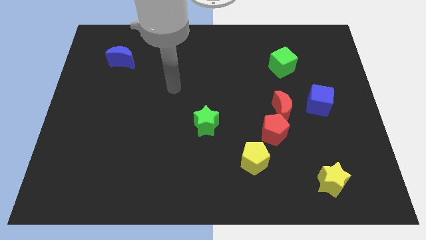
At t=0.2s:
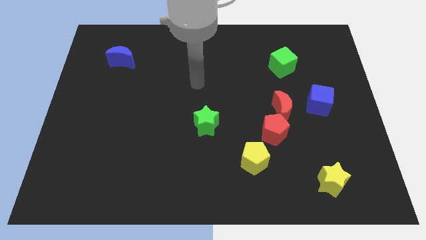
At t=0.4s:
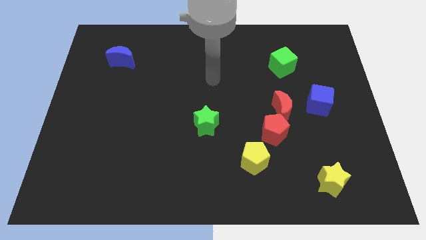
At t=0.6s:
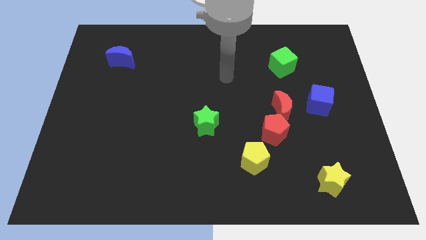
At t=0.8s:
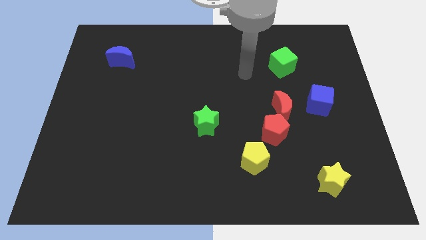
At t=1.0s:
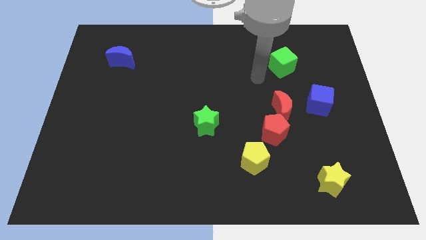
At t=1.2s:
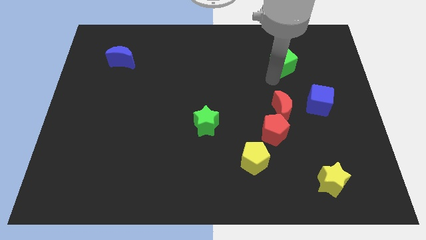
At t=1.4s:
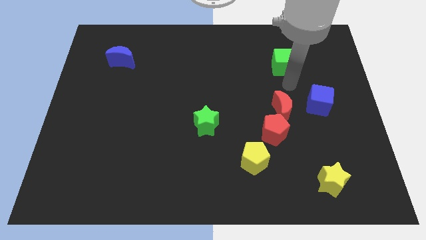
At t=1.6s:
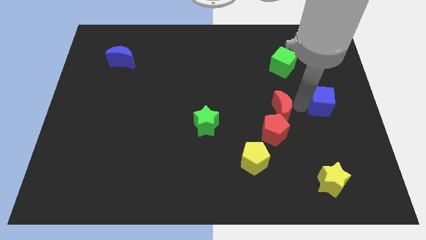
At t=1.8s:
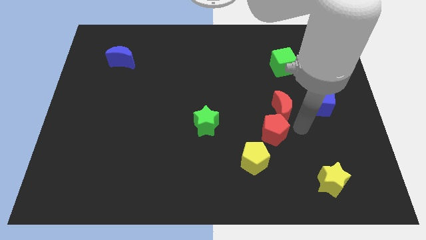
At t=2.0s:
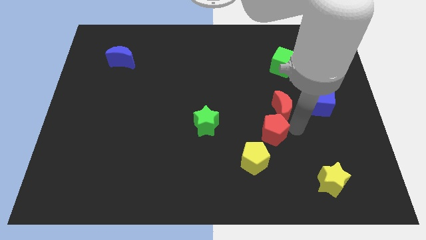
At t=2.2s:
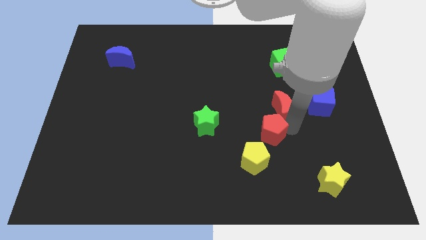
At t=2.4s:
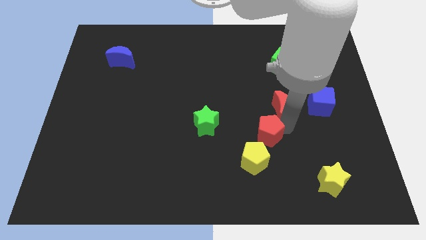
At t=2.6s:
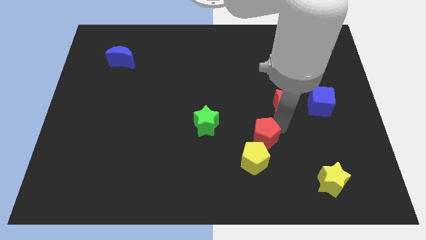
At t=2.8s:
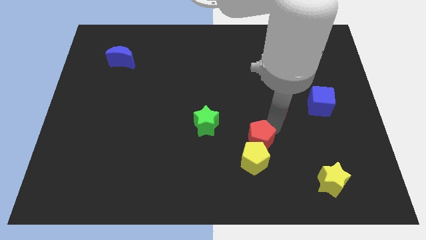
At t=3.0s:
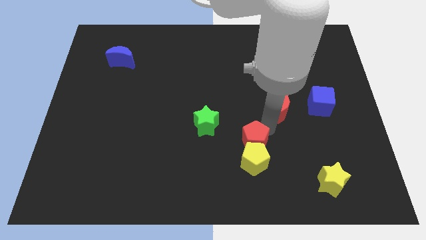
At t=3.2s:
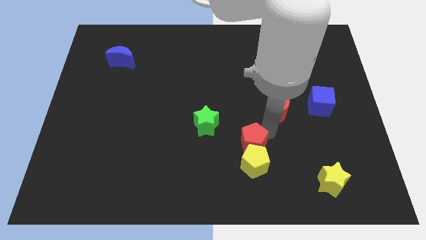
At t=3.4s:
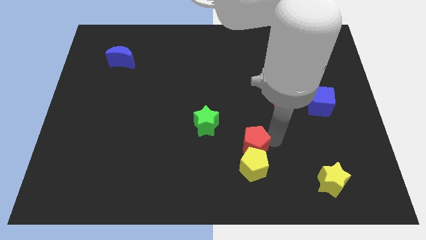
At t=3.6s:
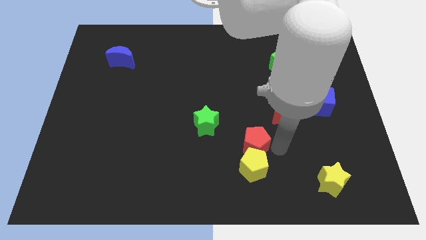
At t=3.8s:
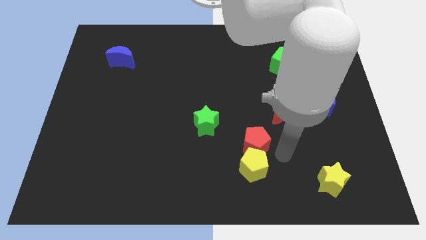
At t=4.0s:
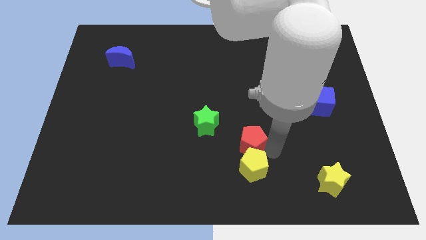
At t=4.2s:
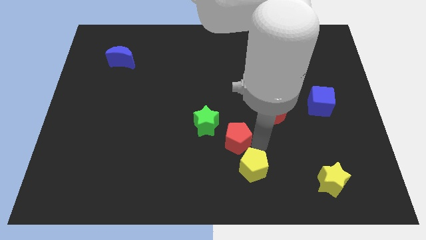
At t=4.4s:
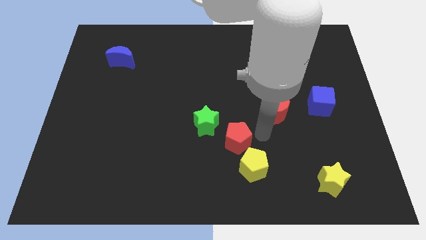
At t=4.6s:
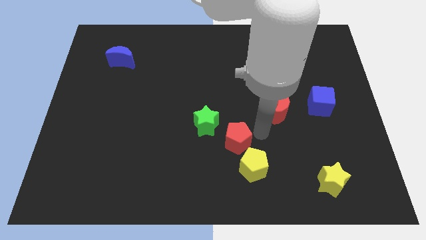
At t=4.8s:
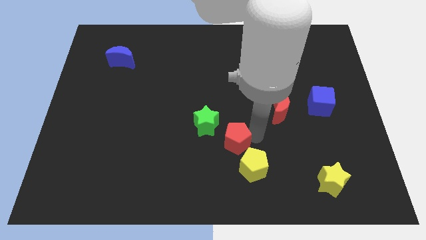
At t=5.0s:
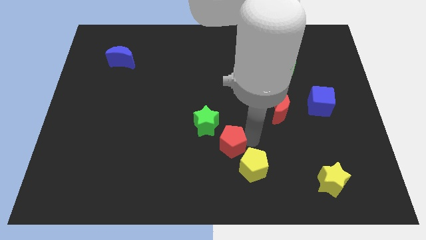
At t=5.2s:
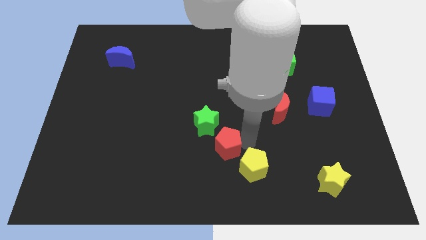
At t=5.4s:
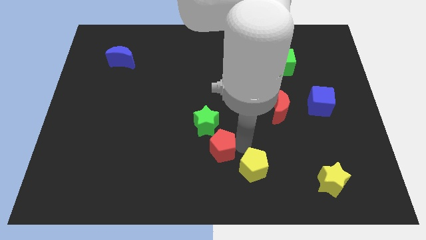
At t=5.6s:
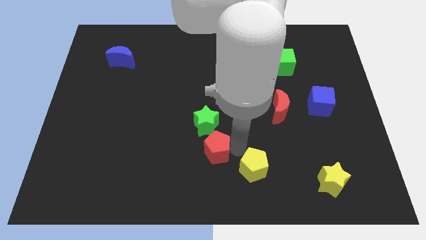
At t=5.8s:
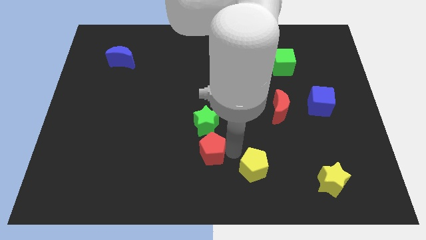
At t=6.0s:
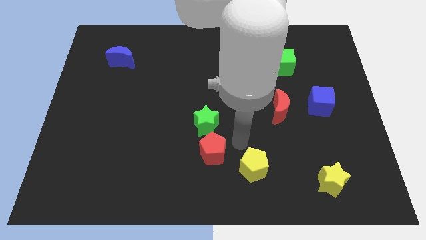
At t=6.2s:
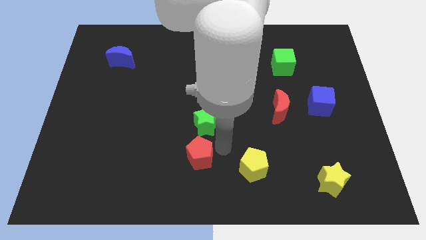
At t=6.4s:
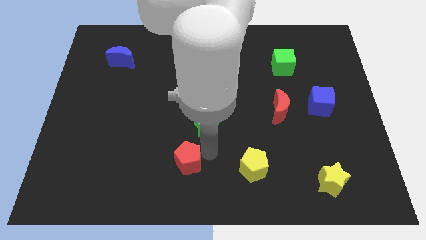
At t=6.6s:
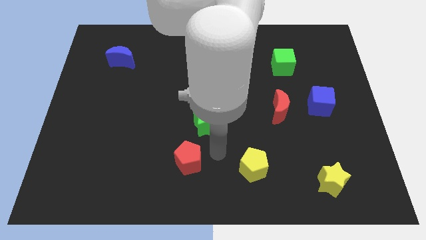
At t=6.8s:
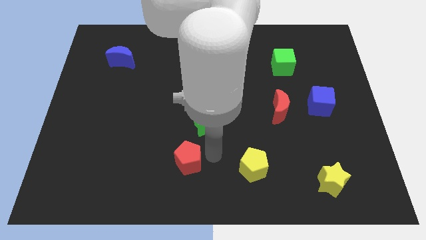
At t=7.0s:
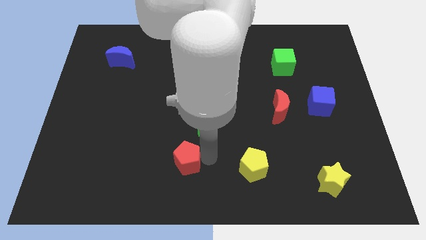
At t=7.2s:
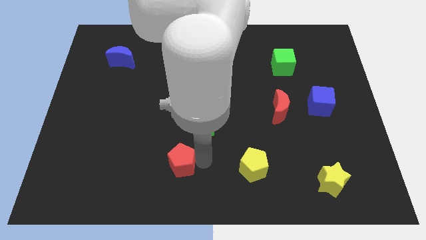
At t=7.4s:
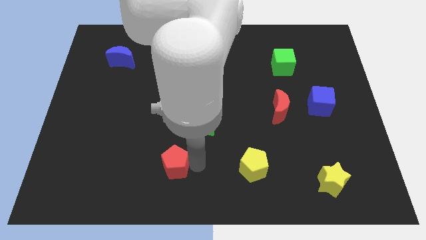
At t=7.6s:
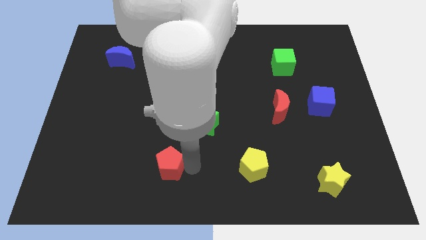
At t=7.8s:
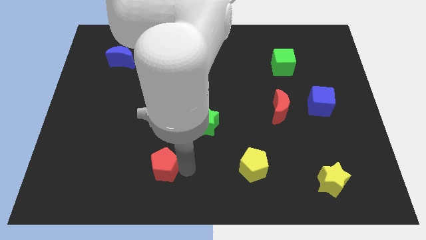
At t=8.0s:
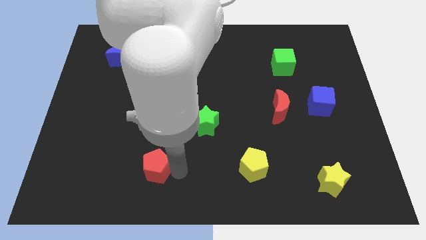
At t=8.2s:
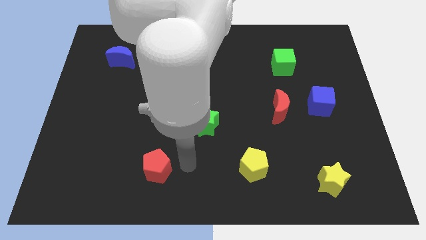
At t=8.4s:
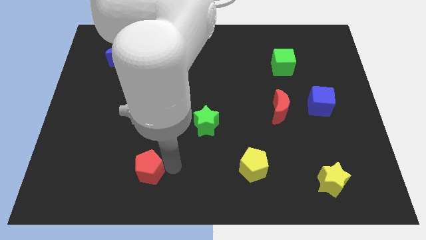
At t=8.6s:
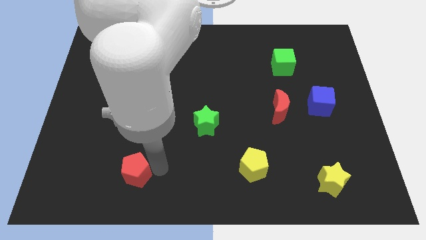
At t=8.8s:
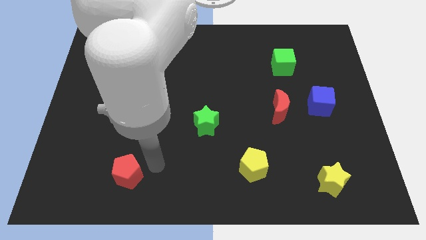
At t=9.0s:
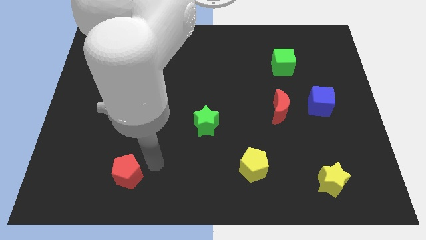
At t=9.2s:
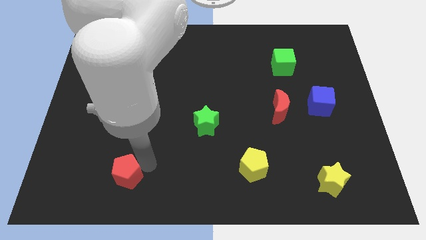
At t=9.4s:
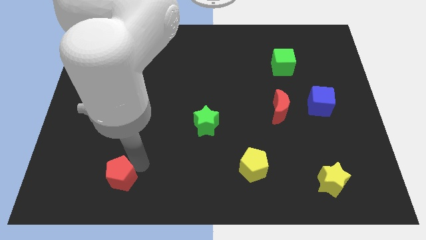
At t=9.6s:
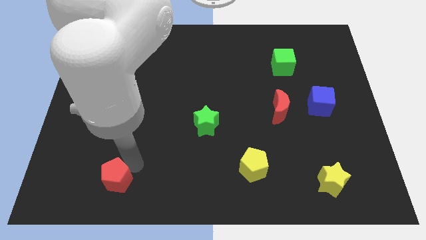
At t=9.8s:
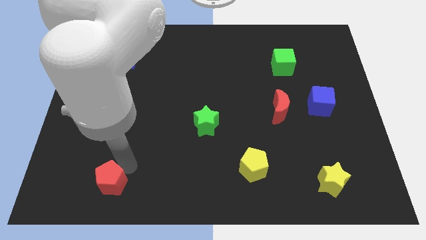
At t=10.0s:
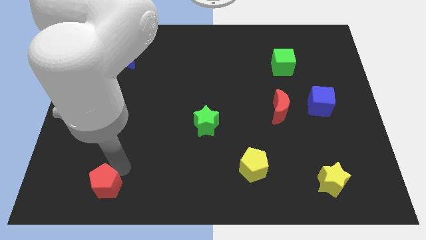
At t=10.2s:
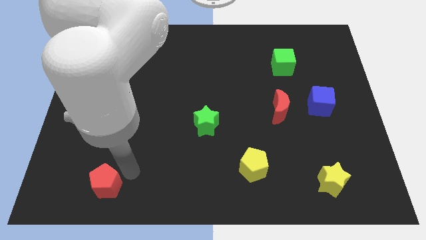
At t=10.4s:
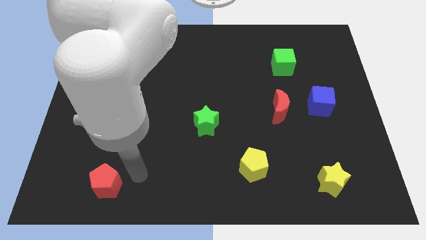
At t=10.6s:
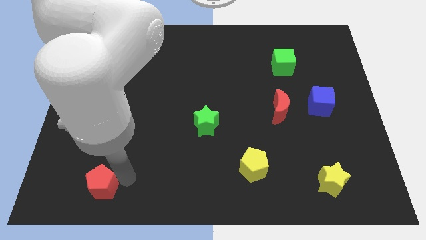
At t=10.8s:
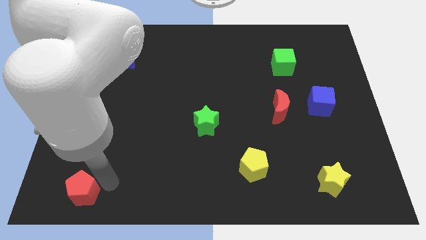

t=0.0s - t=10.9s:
put the red pentagon to the bottom left

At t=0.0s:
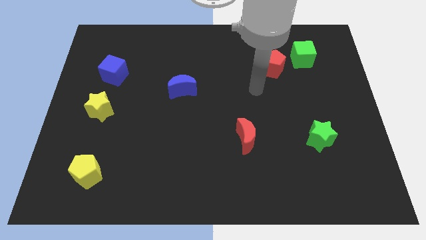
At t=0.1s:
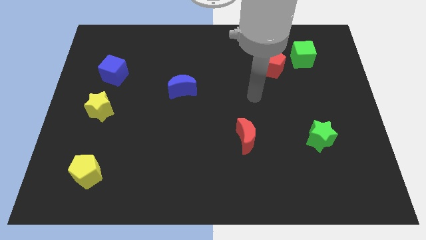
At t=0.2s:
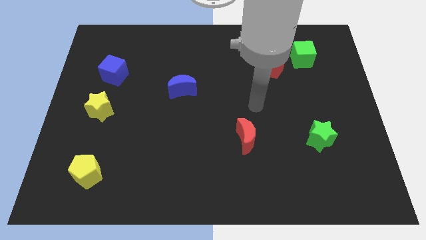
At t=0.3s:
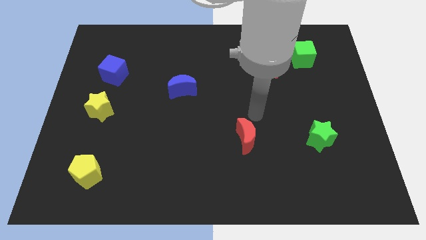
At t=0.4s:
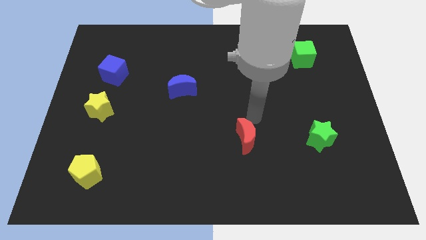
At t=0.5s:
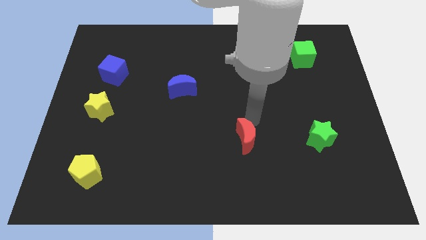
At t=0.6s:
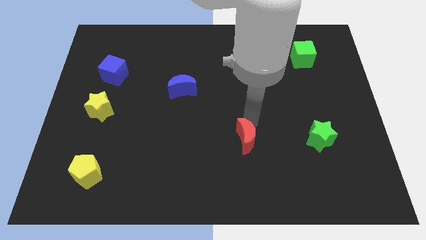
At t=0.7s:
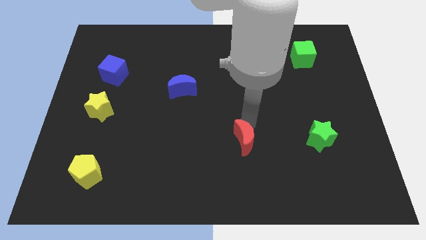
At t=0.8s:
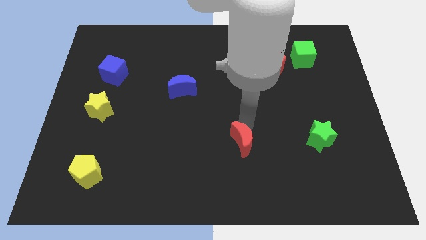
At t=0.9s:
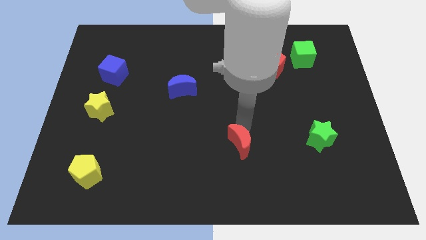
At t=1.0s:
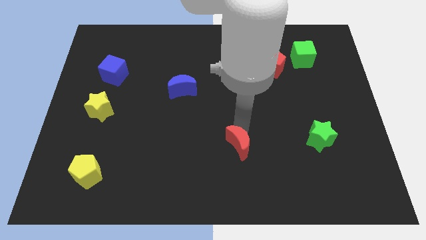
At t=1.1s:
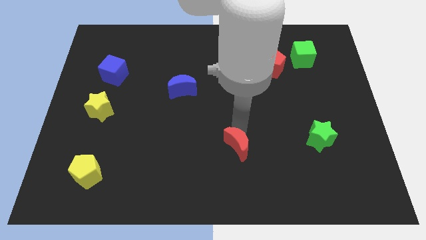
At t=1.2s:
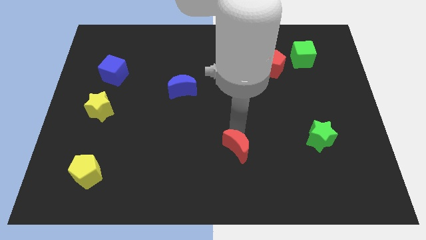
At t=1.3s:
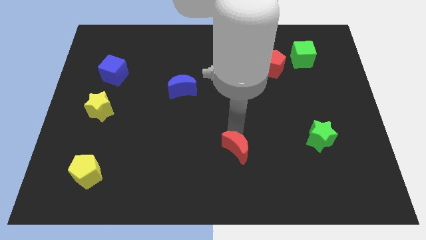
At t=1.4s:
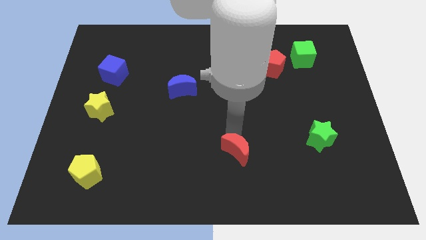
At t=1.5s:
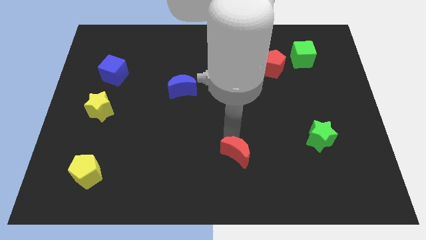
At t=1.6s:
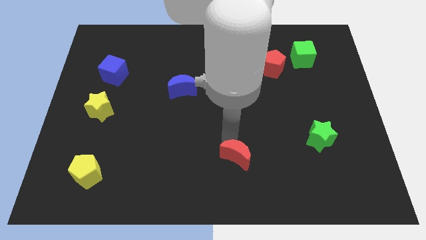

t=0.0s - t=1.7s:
slide the red moon to the bottom

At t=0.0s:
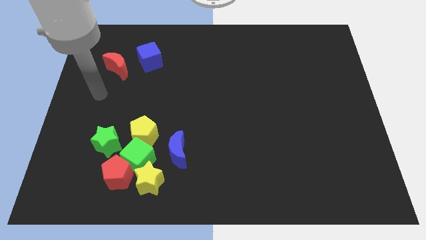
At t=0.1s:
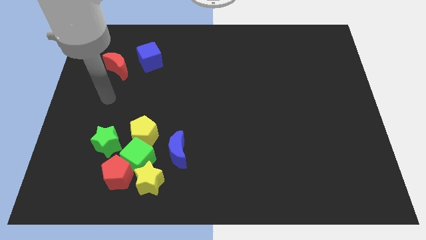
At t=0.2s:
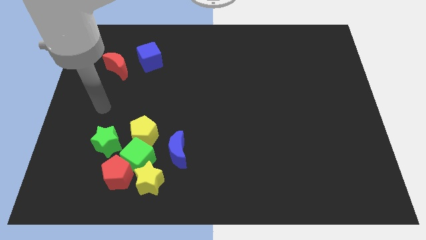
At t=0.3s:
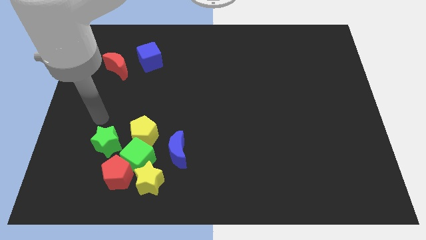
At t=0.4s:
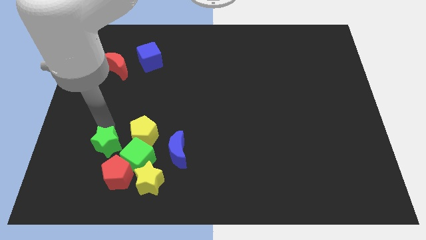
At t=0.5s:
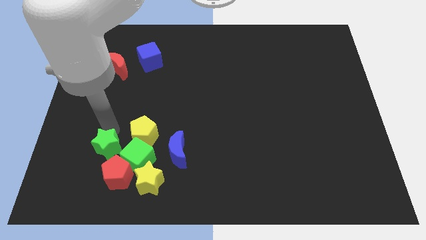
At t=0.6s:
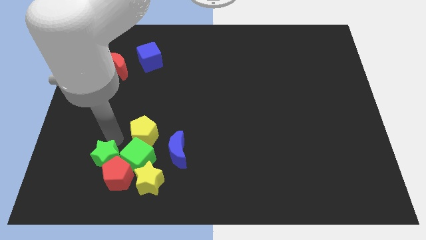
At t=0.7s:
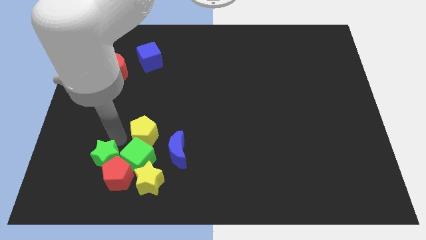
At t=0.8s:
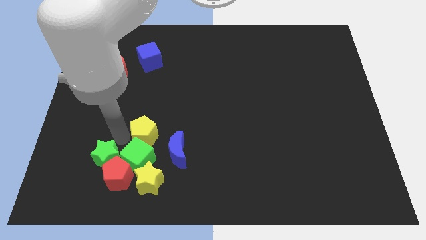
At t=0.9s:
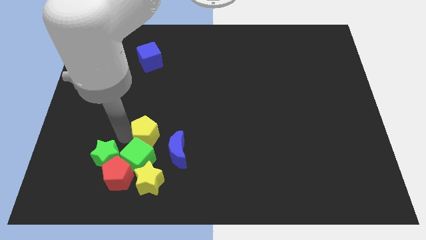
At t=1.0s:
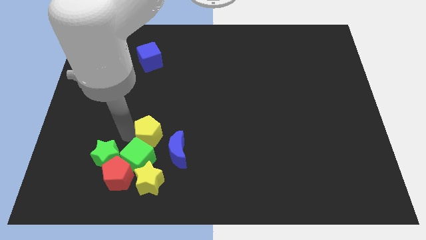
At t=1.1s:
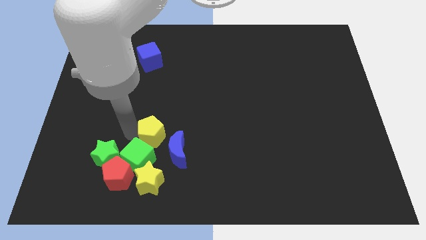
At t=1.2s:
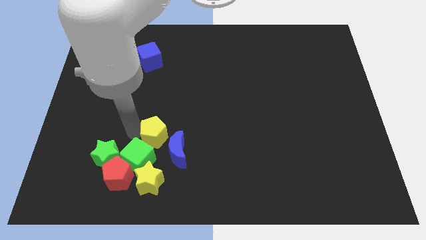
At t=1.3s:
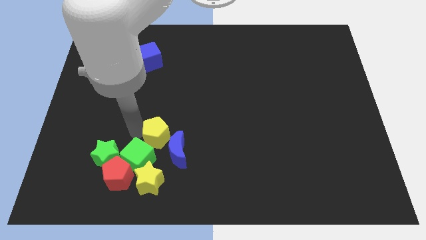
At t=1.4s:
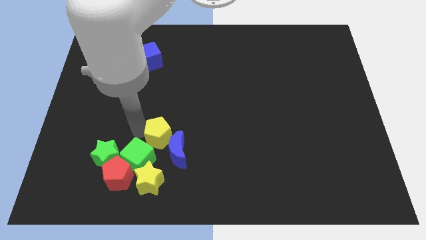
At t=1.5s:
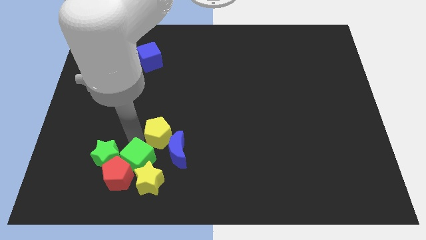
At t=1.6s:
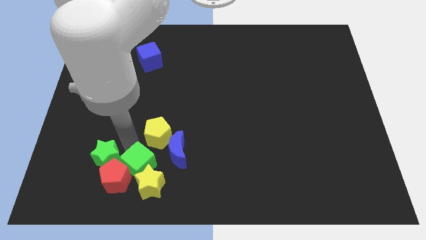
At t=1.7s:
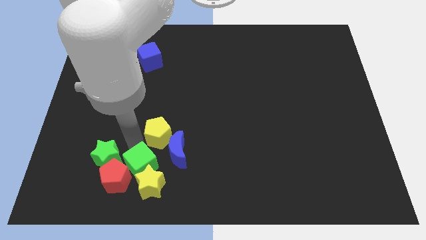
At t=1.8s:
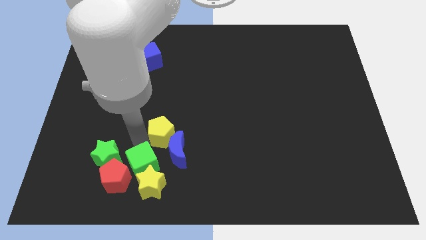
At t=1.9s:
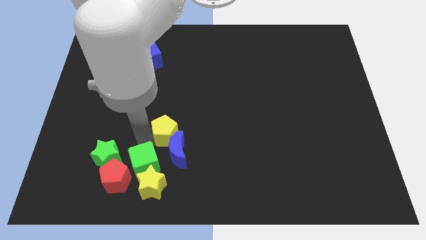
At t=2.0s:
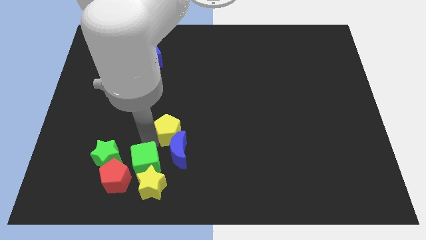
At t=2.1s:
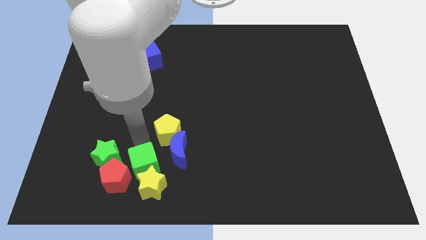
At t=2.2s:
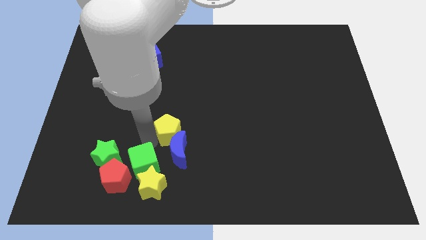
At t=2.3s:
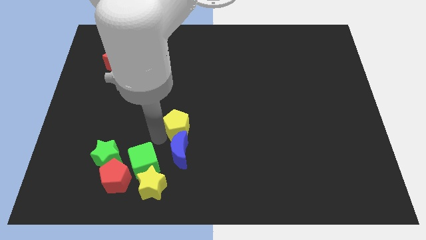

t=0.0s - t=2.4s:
slide the yellow pentagon to the middle of the board
